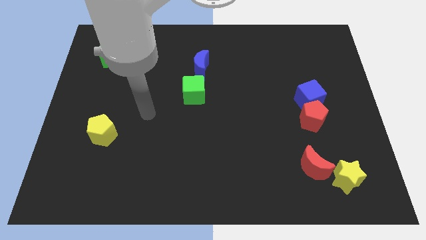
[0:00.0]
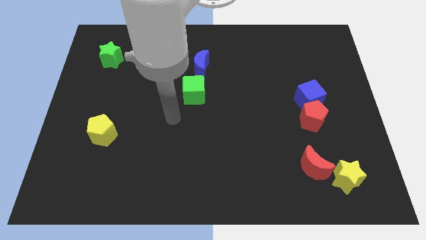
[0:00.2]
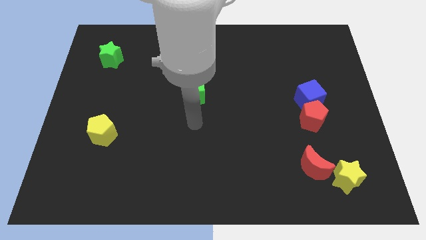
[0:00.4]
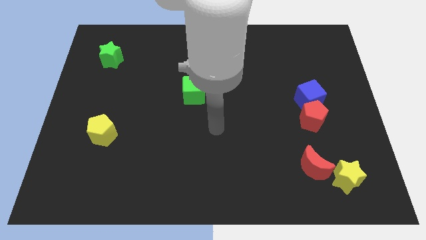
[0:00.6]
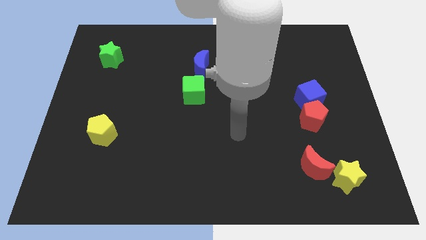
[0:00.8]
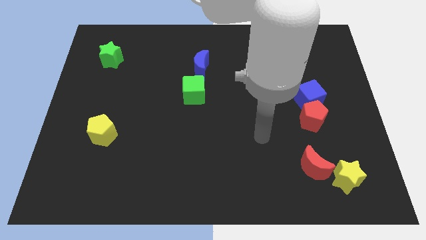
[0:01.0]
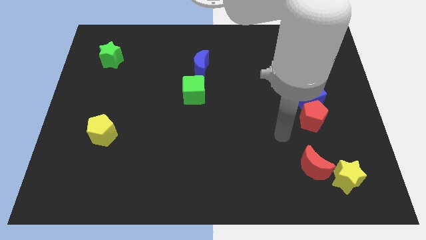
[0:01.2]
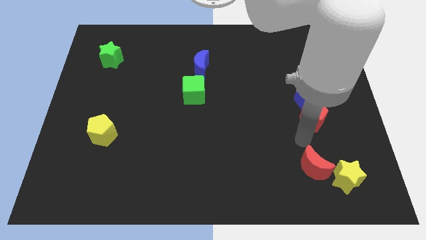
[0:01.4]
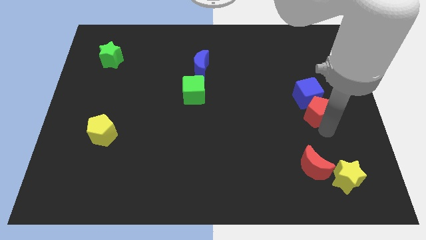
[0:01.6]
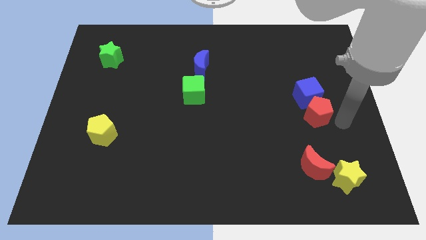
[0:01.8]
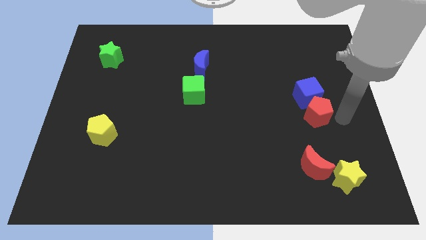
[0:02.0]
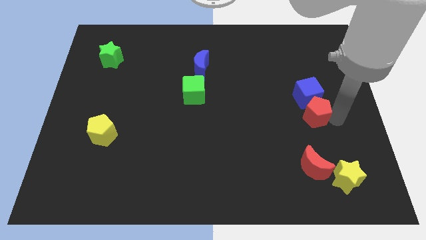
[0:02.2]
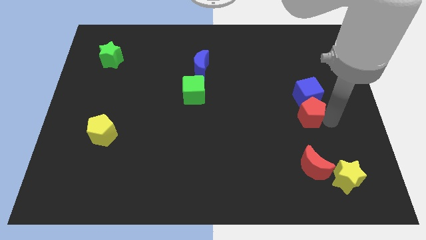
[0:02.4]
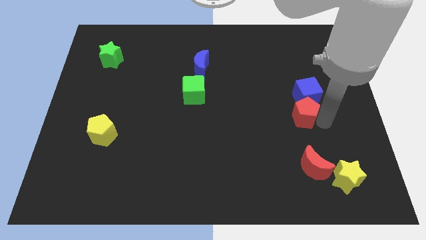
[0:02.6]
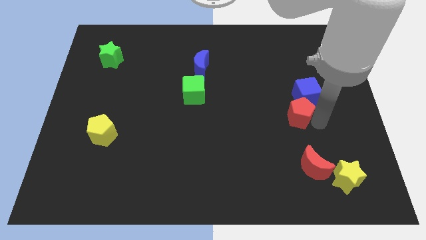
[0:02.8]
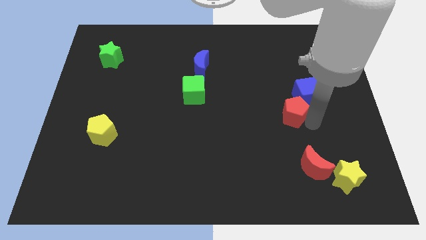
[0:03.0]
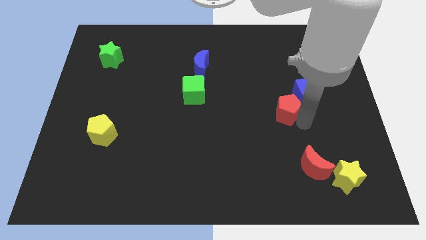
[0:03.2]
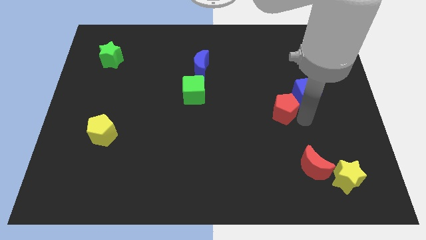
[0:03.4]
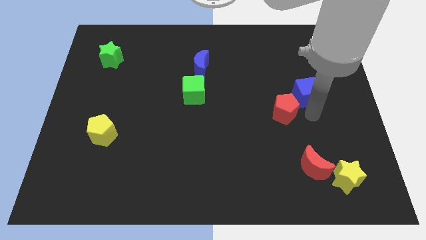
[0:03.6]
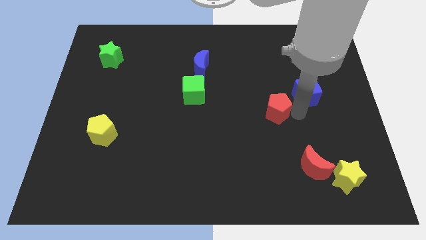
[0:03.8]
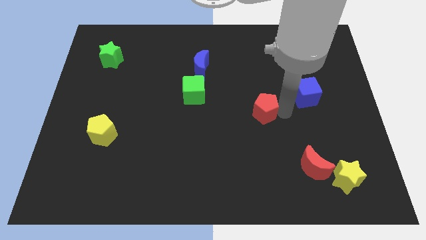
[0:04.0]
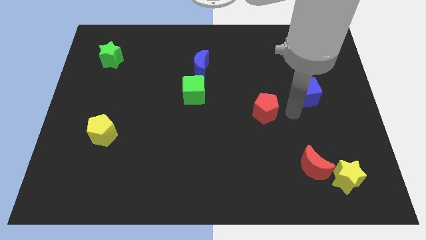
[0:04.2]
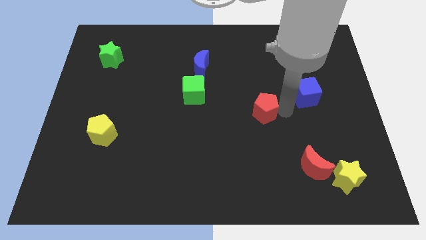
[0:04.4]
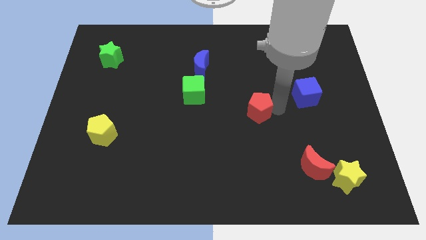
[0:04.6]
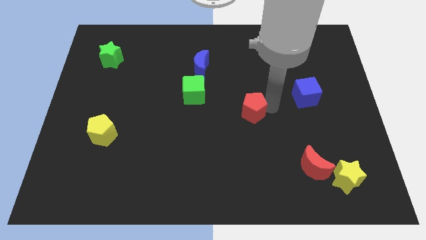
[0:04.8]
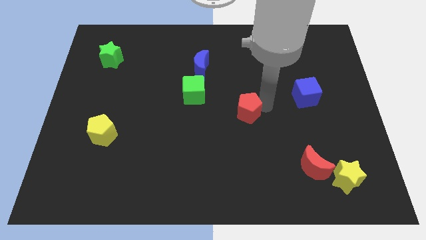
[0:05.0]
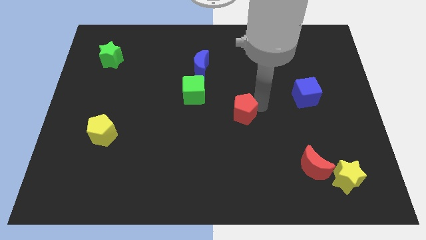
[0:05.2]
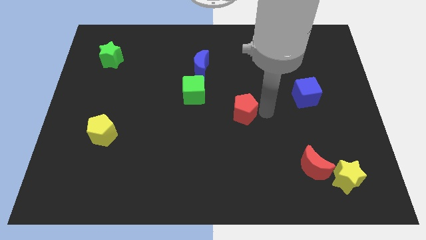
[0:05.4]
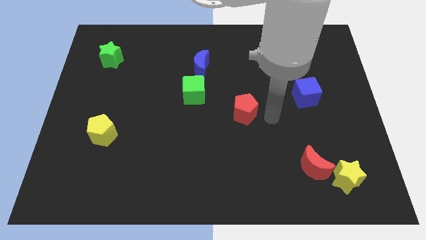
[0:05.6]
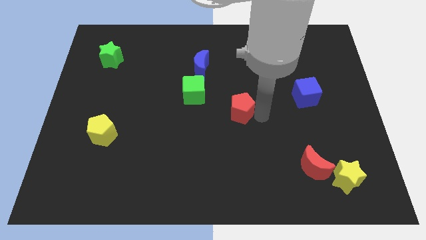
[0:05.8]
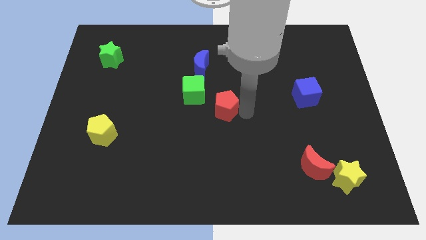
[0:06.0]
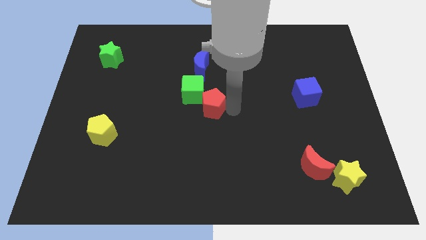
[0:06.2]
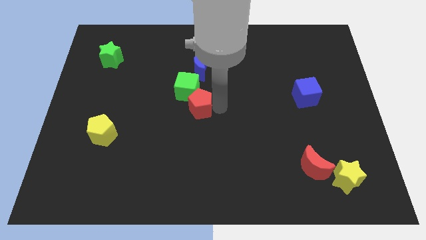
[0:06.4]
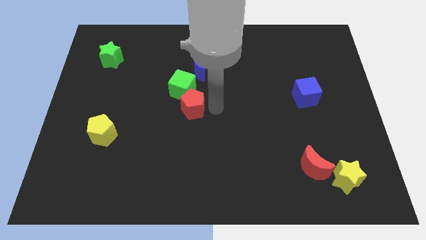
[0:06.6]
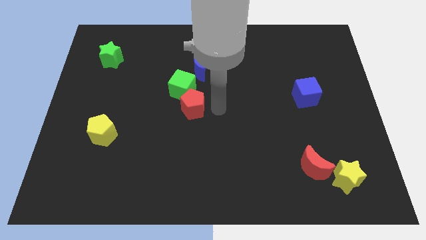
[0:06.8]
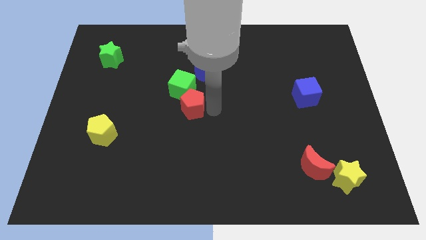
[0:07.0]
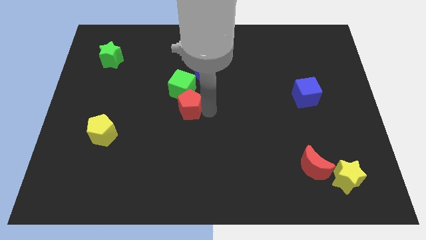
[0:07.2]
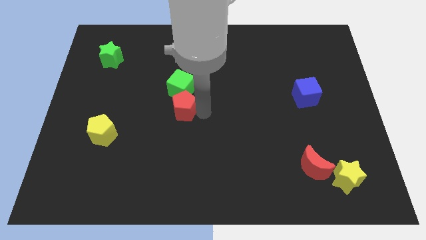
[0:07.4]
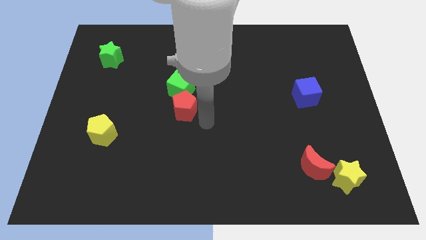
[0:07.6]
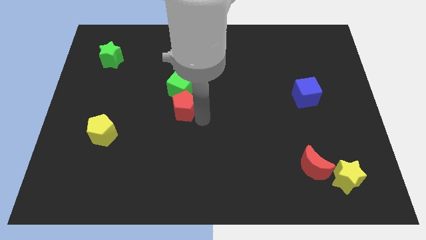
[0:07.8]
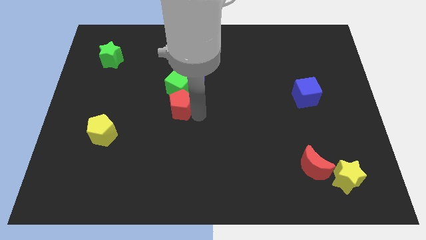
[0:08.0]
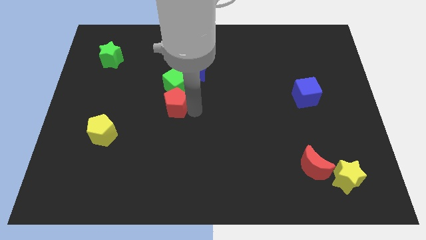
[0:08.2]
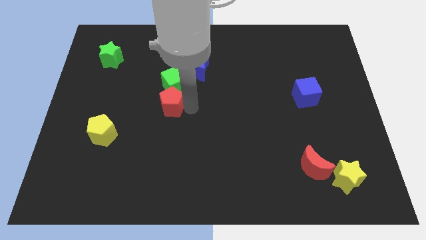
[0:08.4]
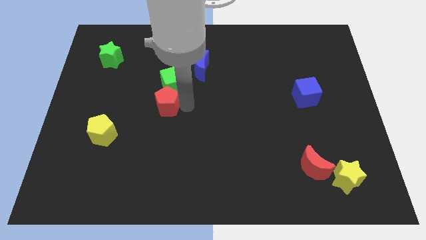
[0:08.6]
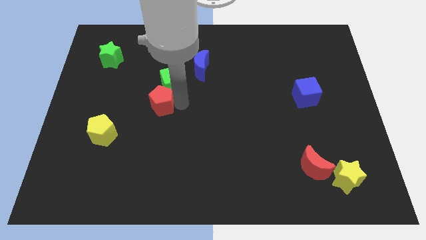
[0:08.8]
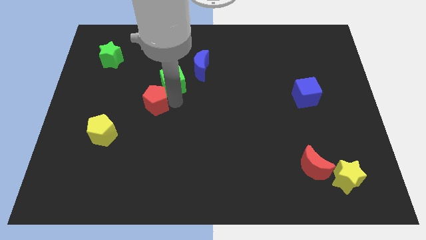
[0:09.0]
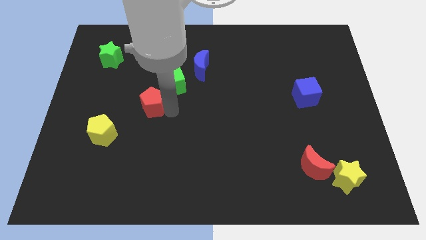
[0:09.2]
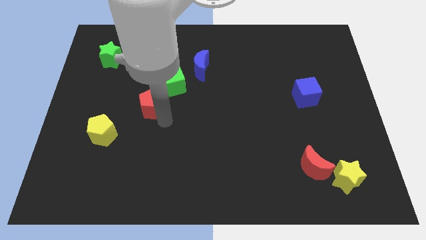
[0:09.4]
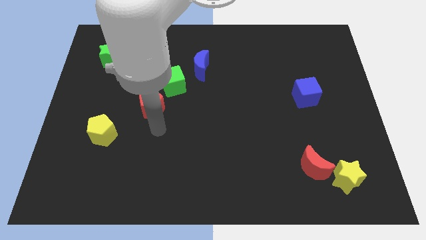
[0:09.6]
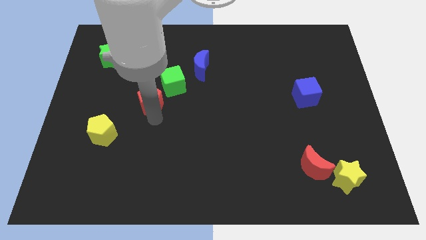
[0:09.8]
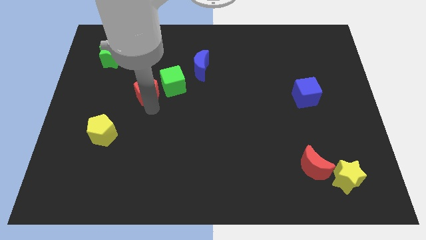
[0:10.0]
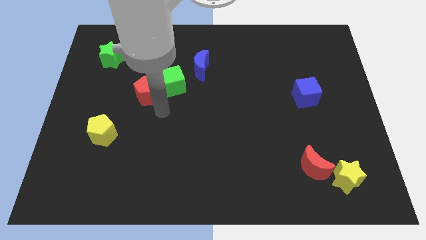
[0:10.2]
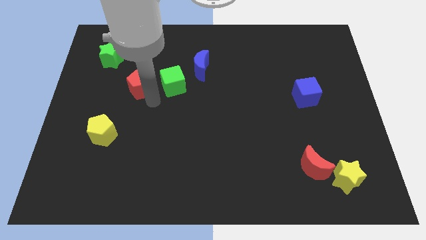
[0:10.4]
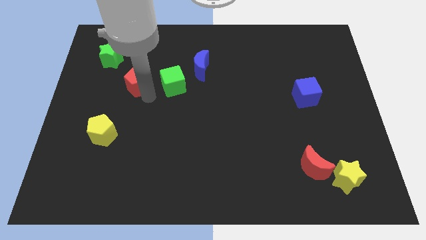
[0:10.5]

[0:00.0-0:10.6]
move the red pentagon to the bottom right of the green star

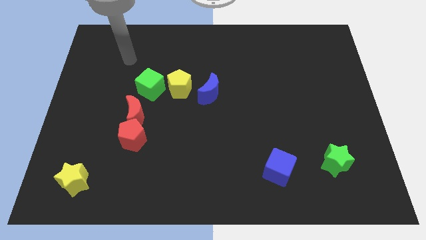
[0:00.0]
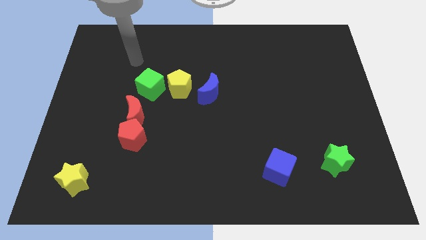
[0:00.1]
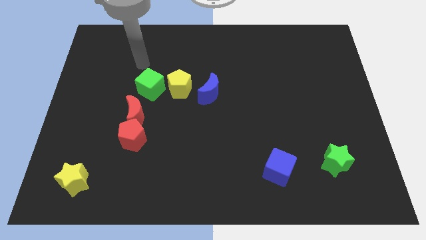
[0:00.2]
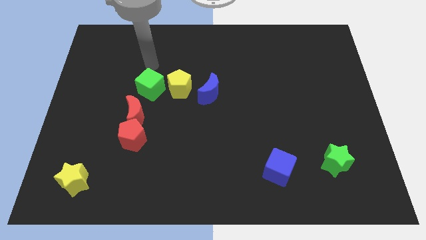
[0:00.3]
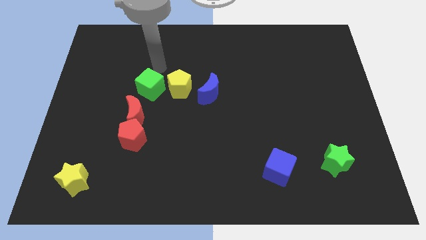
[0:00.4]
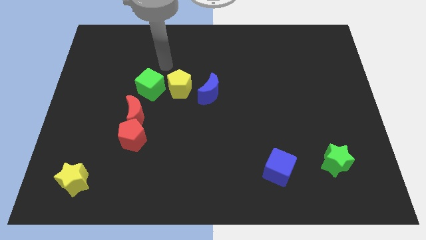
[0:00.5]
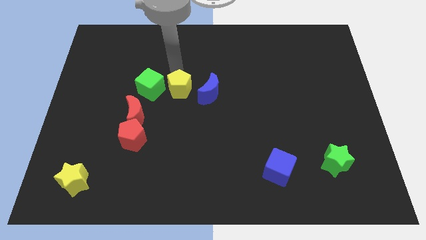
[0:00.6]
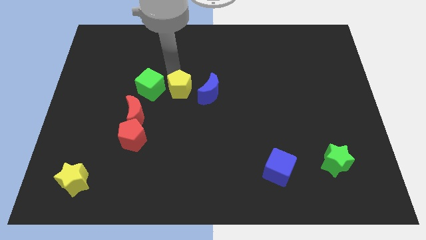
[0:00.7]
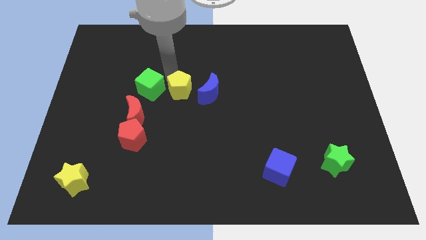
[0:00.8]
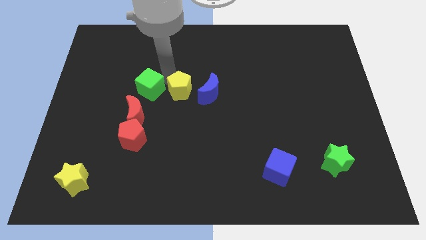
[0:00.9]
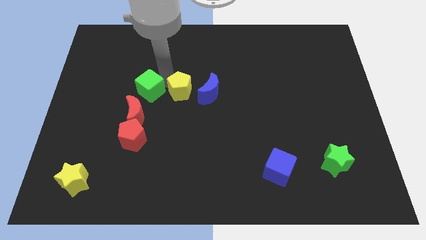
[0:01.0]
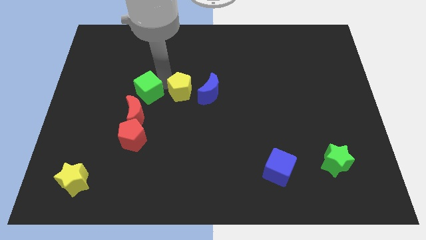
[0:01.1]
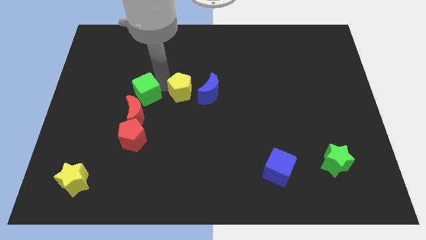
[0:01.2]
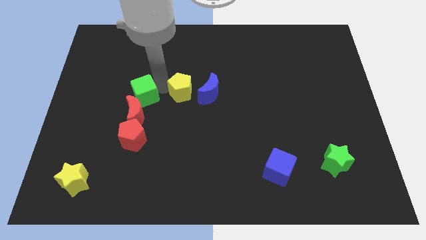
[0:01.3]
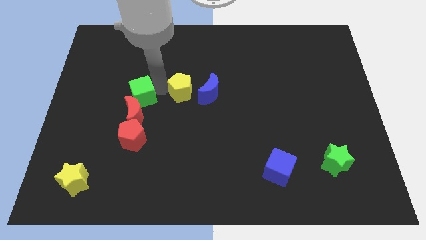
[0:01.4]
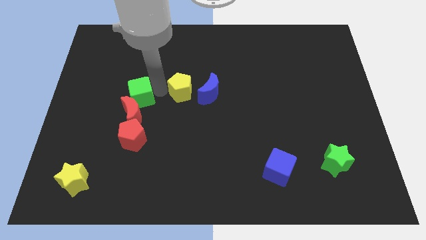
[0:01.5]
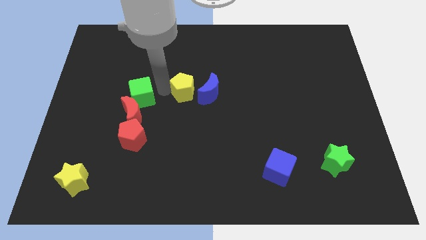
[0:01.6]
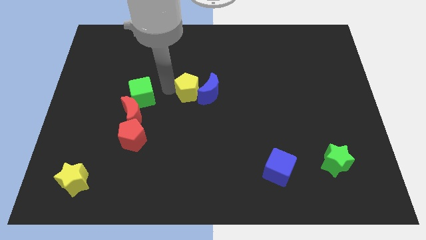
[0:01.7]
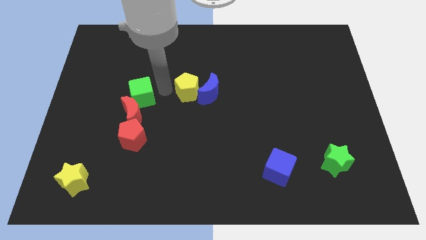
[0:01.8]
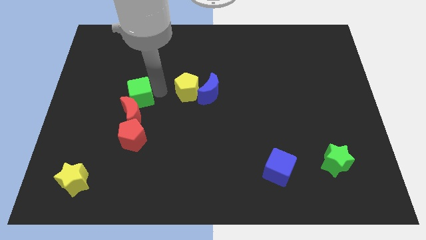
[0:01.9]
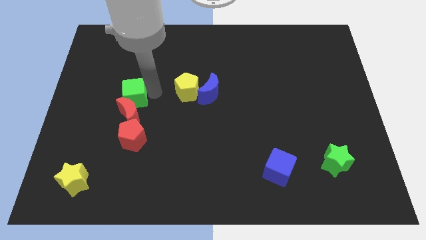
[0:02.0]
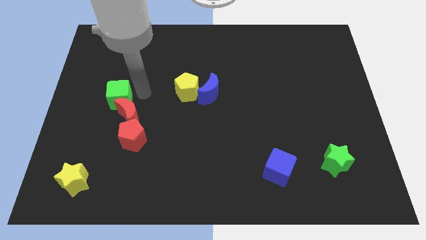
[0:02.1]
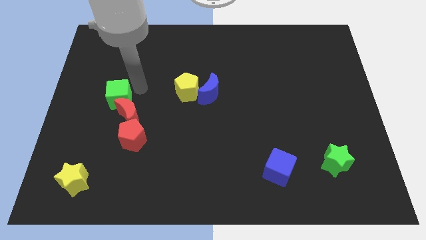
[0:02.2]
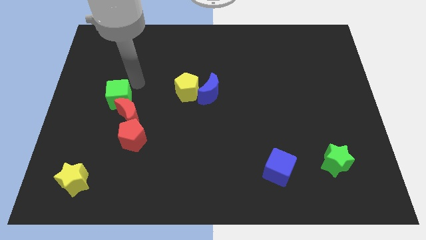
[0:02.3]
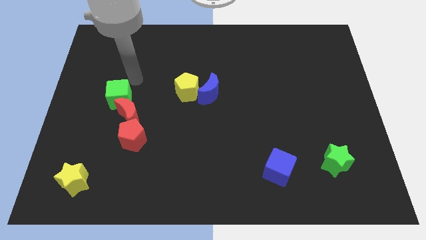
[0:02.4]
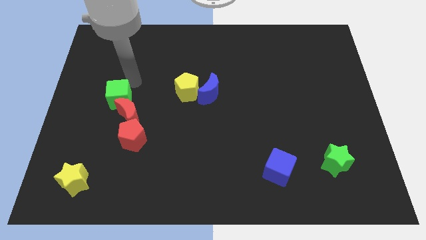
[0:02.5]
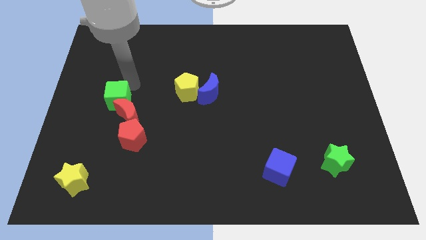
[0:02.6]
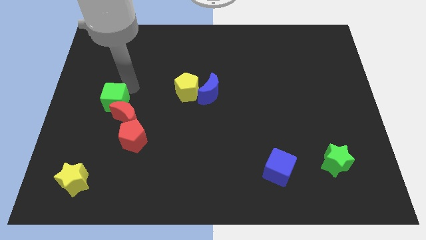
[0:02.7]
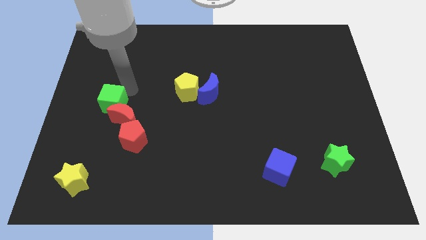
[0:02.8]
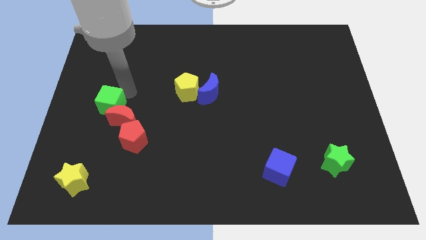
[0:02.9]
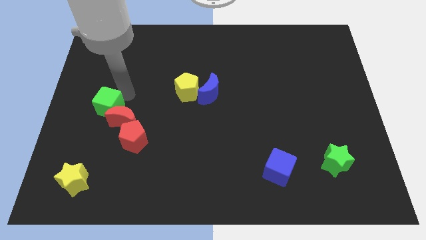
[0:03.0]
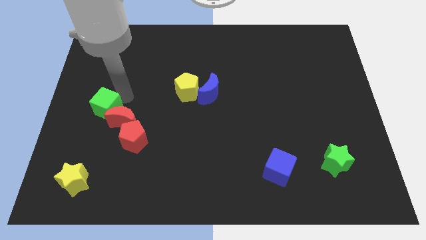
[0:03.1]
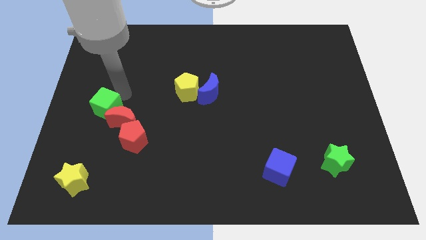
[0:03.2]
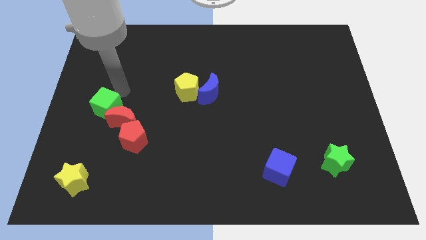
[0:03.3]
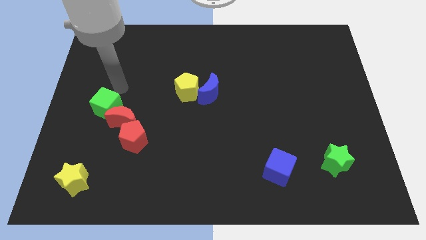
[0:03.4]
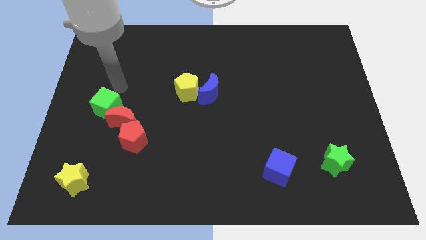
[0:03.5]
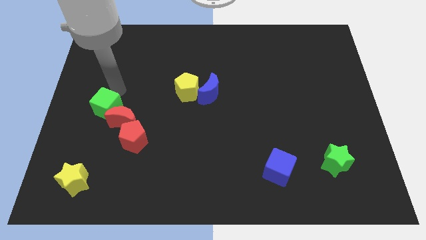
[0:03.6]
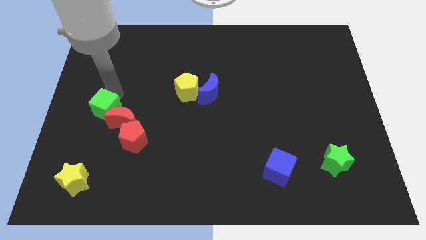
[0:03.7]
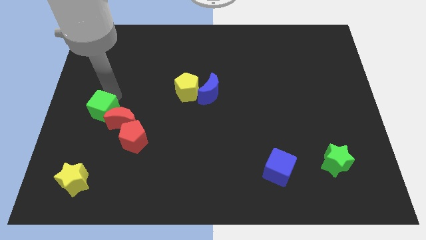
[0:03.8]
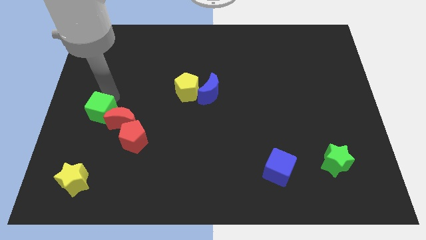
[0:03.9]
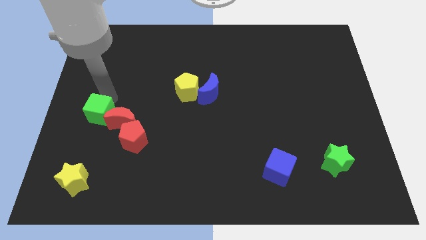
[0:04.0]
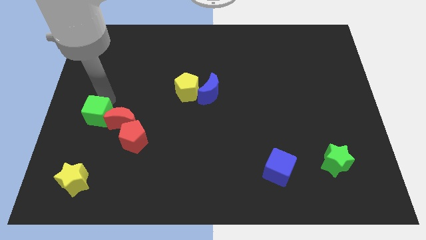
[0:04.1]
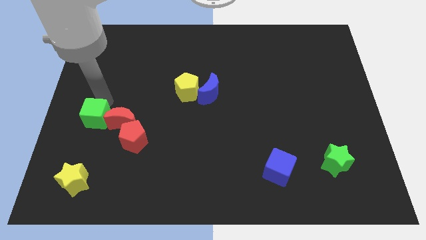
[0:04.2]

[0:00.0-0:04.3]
slide the green cube above the yellow star
